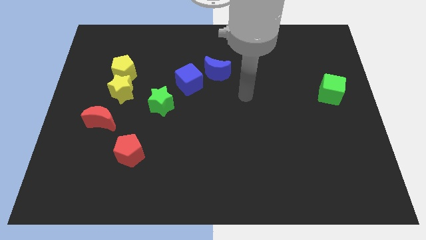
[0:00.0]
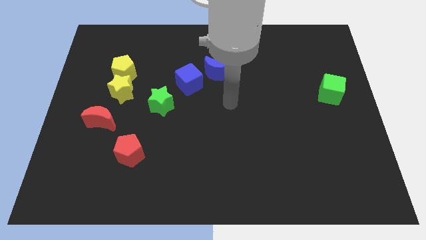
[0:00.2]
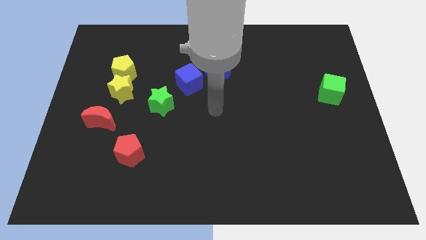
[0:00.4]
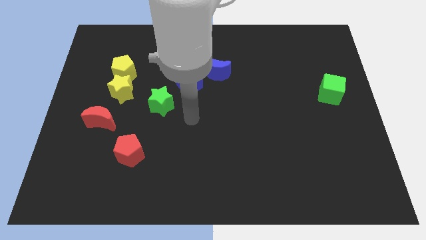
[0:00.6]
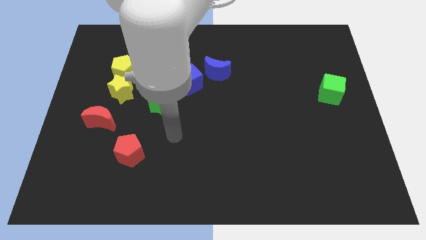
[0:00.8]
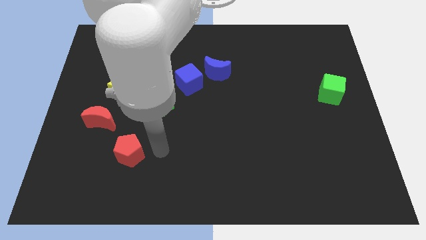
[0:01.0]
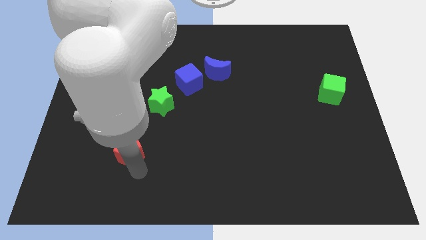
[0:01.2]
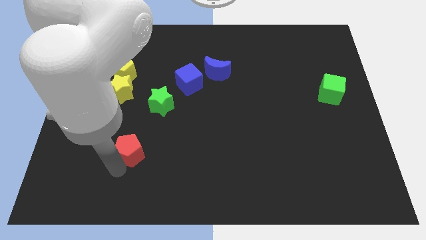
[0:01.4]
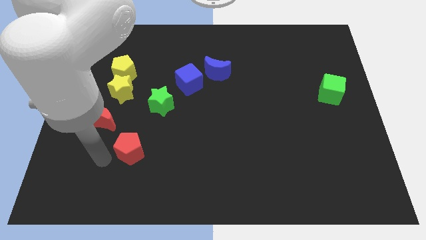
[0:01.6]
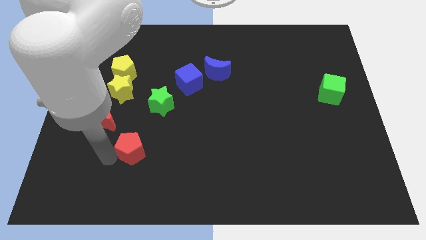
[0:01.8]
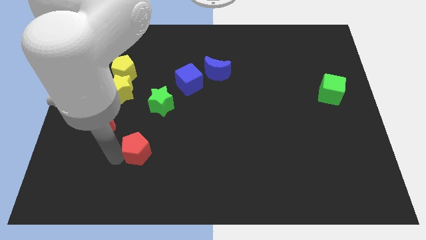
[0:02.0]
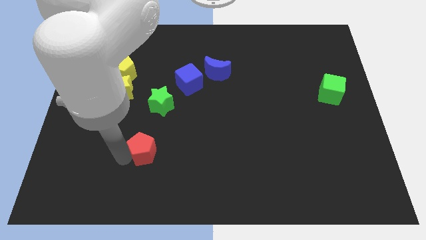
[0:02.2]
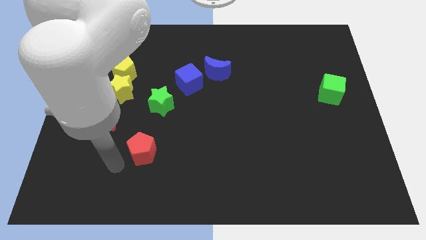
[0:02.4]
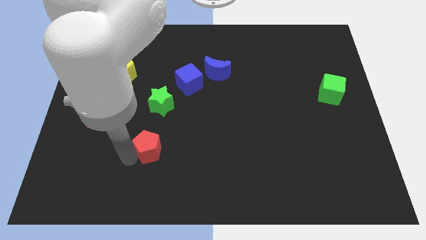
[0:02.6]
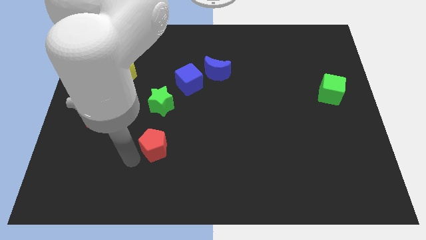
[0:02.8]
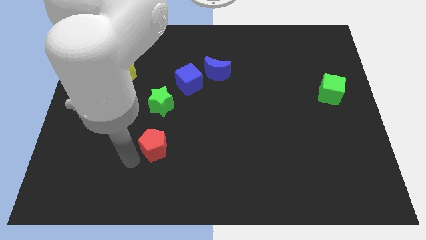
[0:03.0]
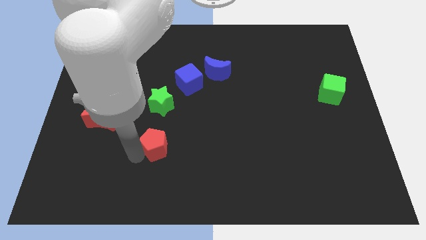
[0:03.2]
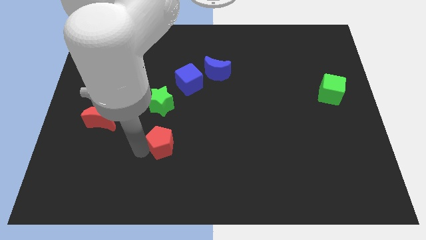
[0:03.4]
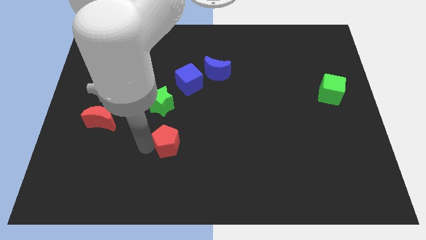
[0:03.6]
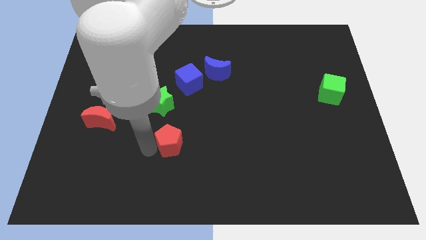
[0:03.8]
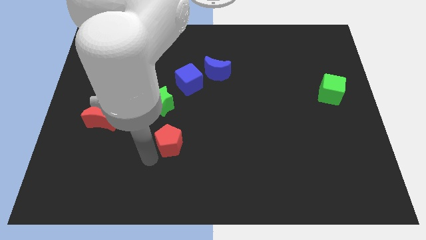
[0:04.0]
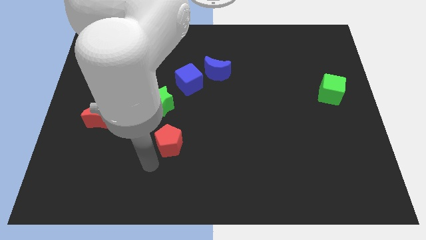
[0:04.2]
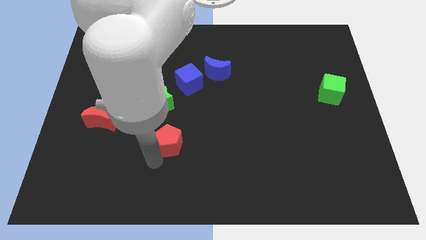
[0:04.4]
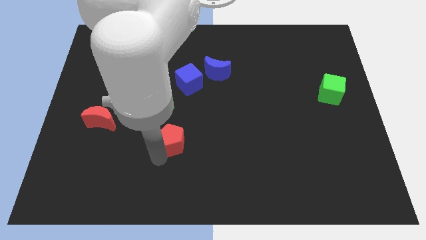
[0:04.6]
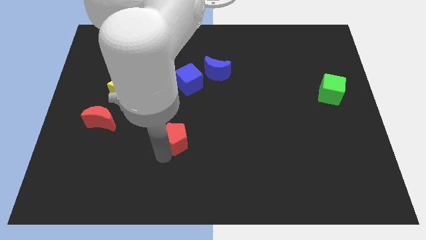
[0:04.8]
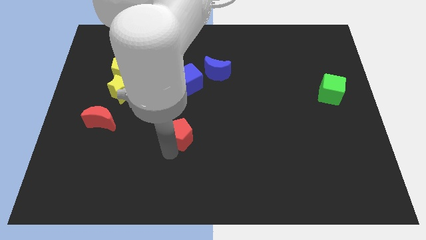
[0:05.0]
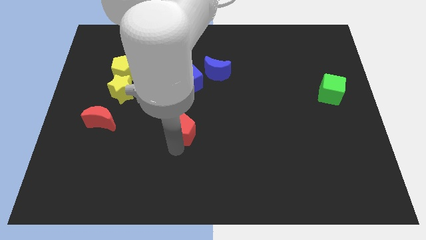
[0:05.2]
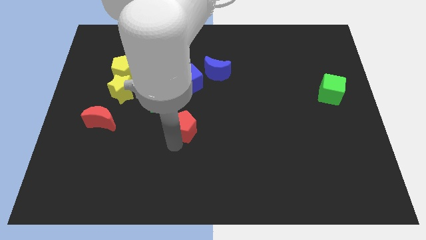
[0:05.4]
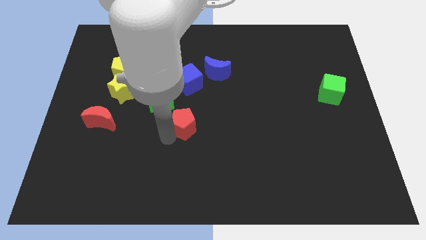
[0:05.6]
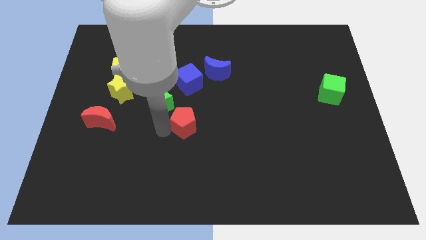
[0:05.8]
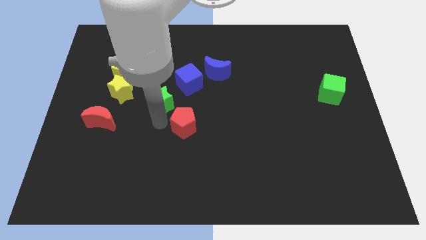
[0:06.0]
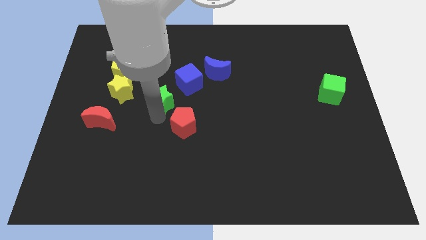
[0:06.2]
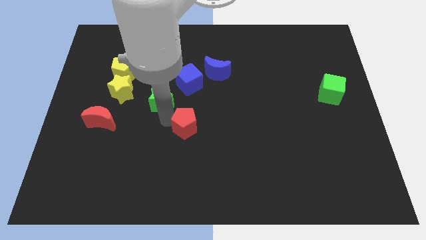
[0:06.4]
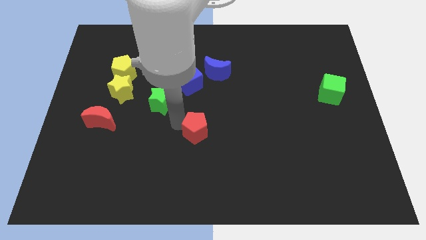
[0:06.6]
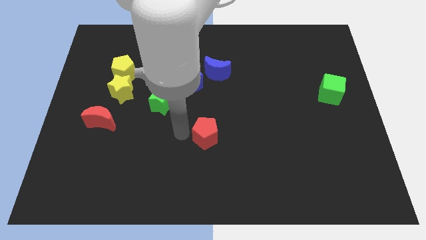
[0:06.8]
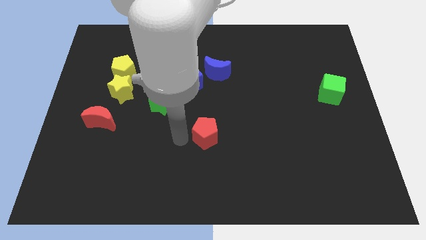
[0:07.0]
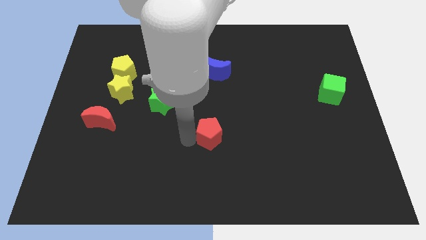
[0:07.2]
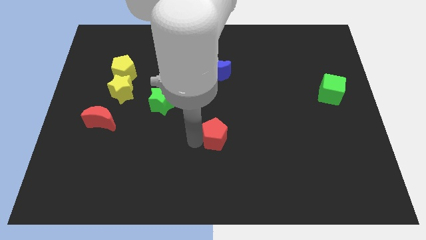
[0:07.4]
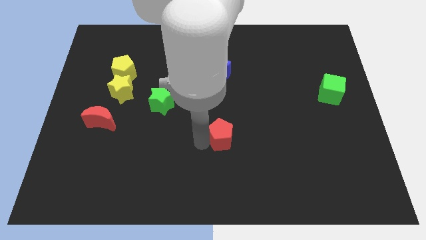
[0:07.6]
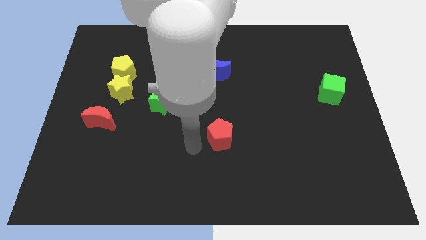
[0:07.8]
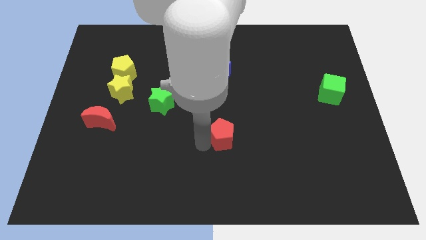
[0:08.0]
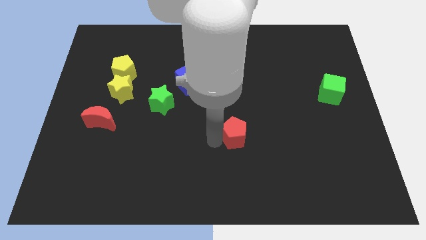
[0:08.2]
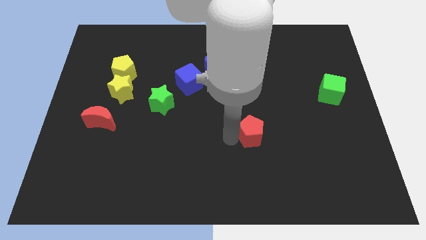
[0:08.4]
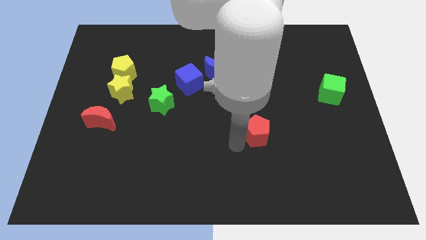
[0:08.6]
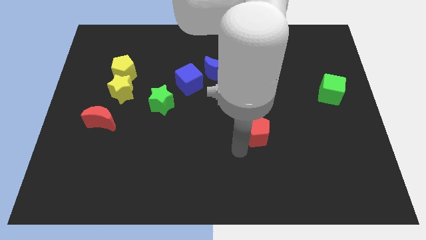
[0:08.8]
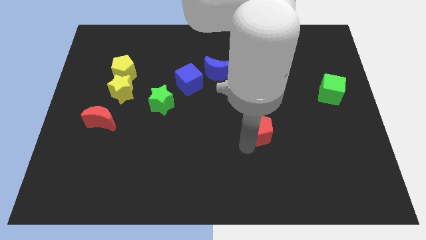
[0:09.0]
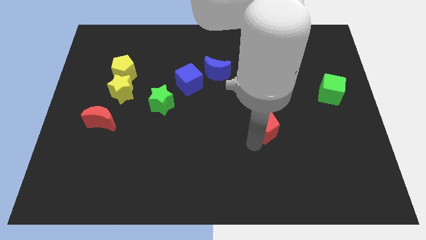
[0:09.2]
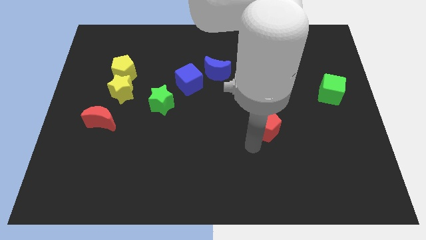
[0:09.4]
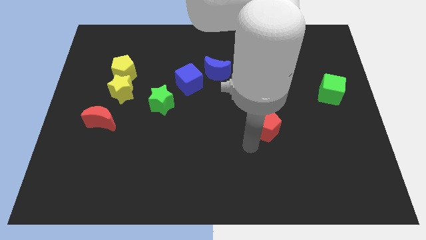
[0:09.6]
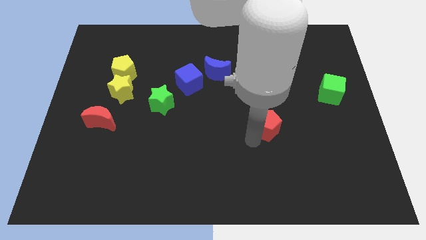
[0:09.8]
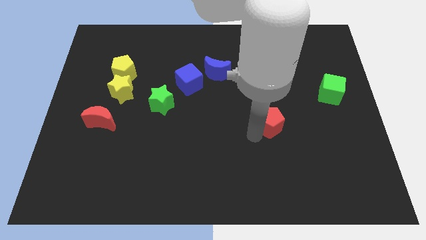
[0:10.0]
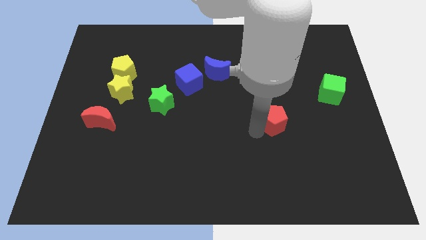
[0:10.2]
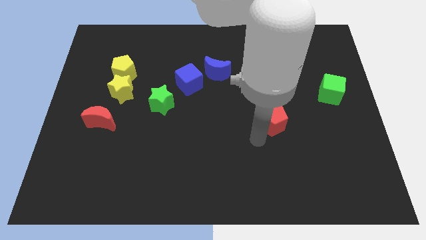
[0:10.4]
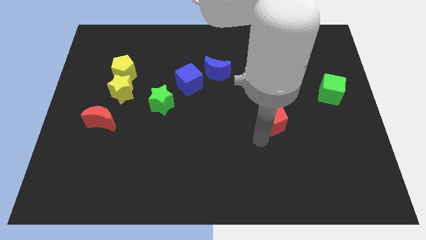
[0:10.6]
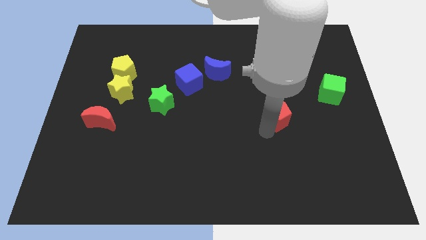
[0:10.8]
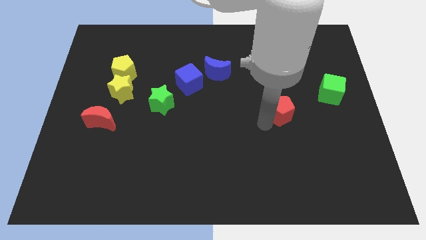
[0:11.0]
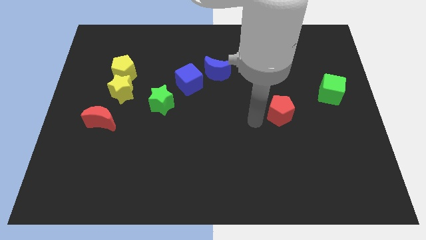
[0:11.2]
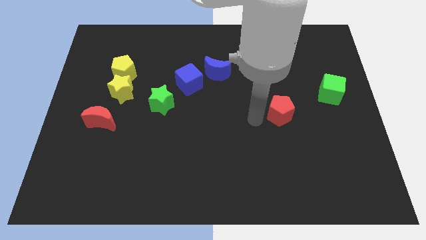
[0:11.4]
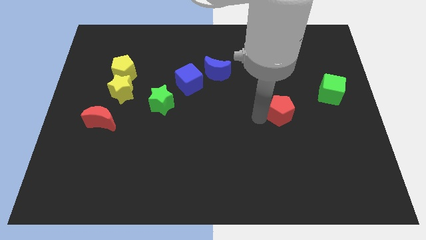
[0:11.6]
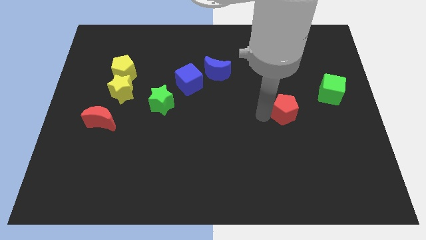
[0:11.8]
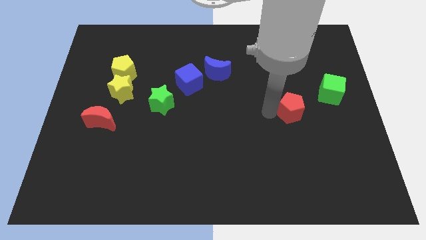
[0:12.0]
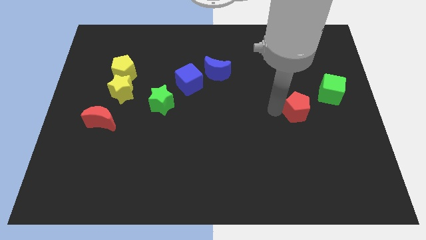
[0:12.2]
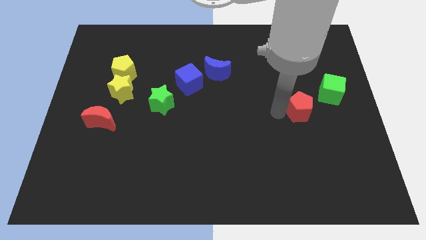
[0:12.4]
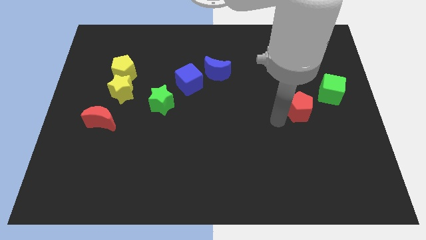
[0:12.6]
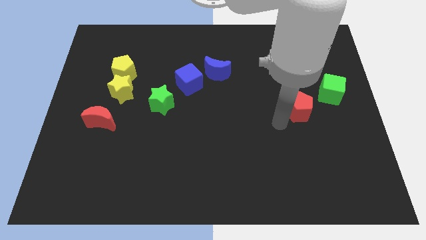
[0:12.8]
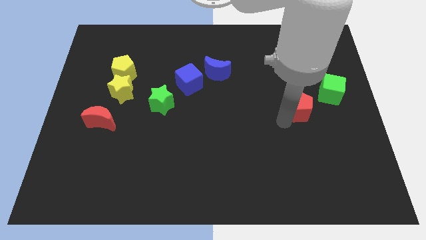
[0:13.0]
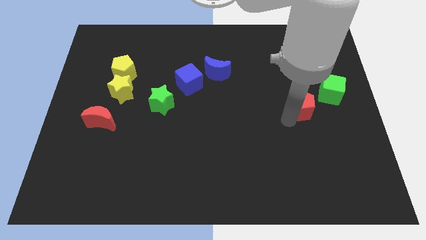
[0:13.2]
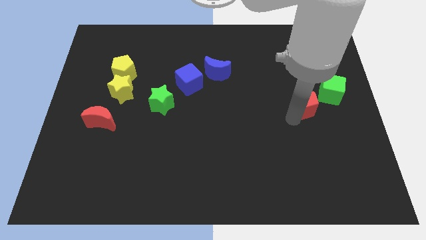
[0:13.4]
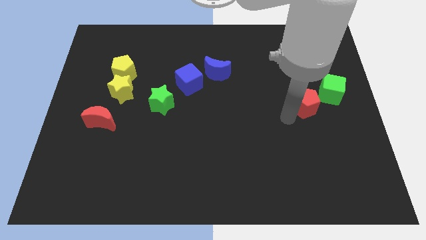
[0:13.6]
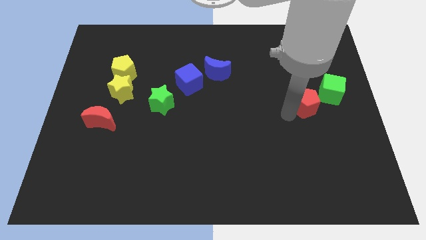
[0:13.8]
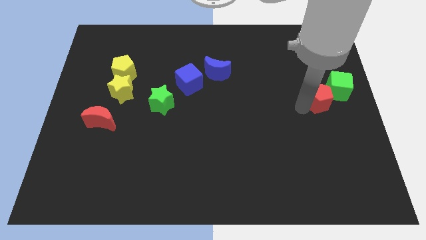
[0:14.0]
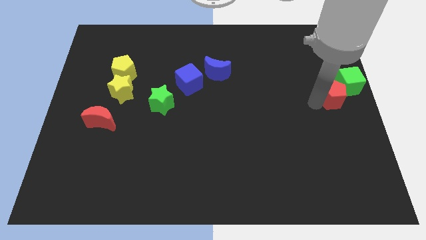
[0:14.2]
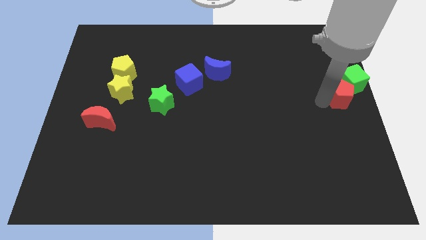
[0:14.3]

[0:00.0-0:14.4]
put the red pentagon close to the green cube

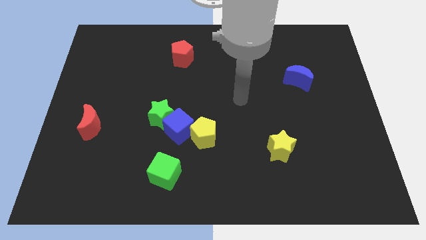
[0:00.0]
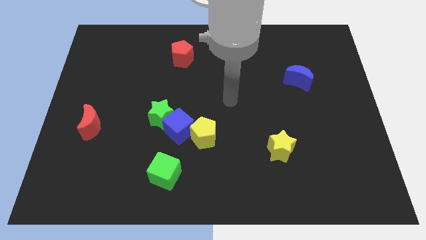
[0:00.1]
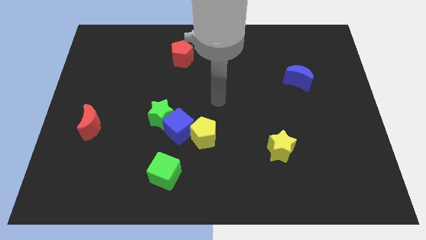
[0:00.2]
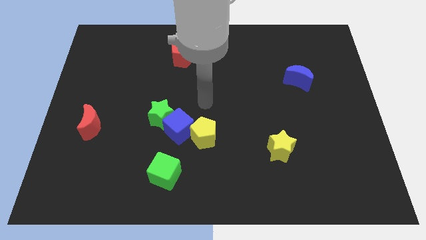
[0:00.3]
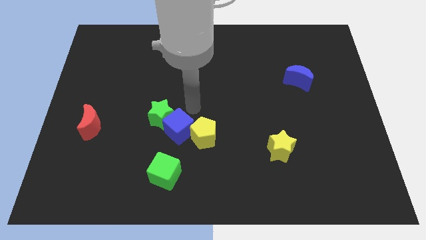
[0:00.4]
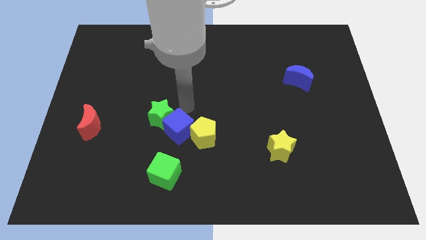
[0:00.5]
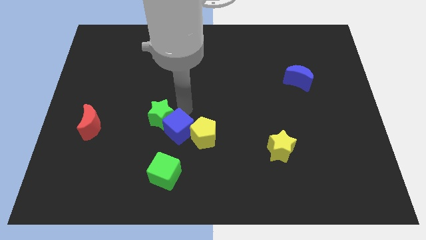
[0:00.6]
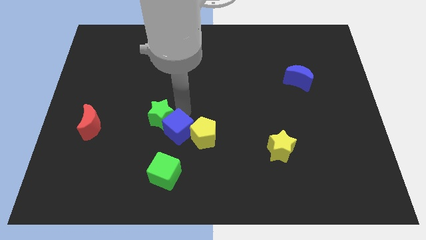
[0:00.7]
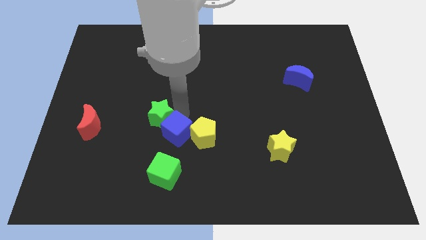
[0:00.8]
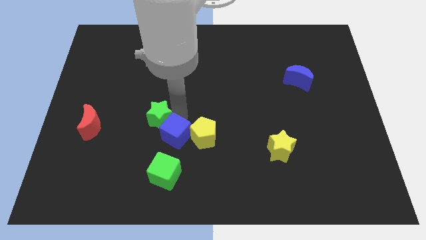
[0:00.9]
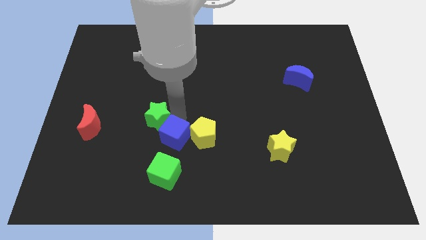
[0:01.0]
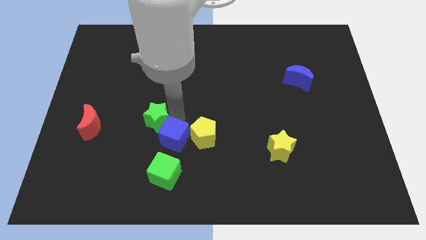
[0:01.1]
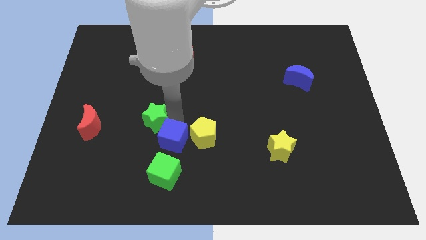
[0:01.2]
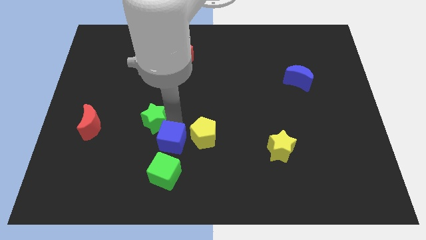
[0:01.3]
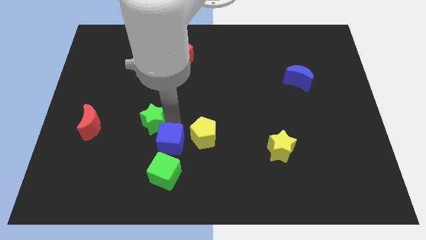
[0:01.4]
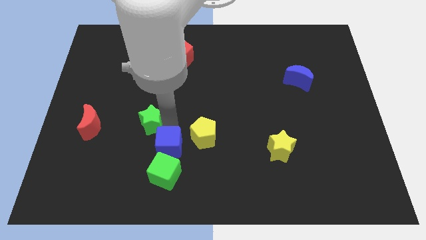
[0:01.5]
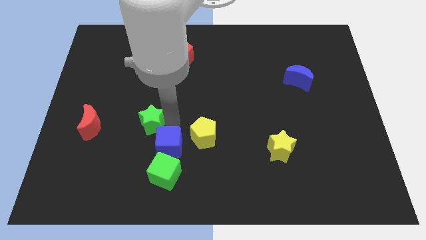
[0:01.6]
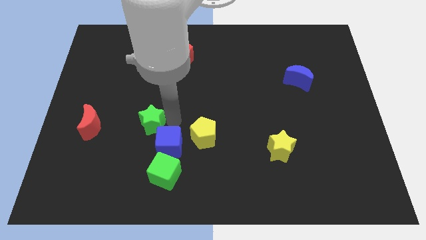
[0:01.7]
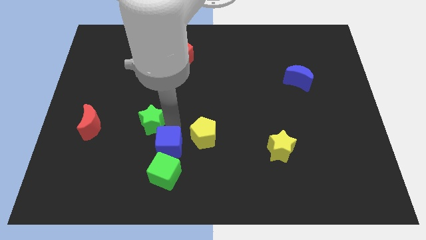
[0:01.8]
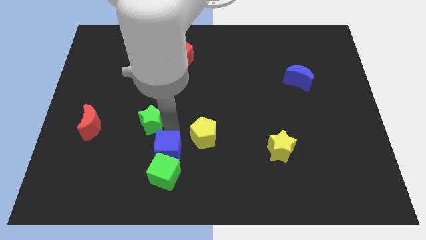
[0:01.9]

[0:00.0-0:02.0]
move the blue cube close to the green cube
